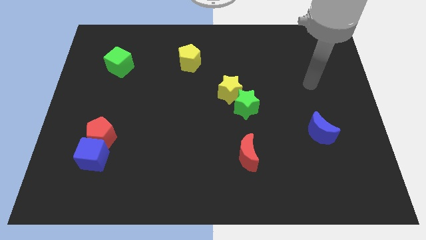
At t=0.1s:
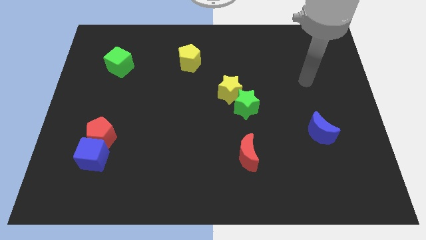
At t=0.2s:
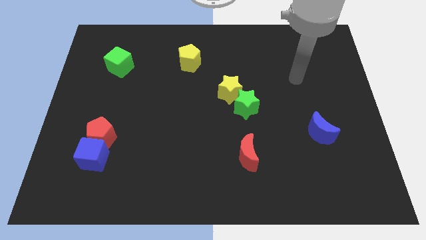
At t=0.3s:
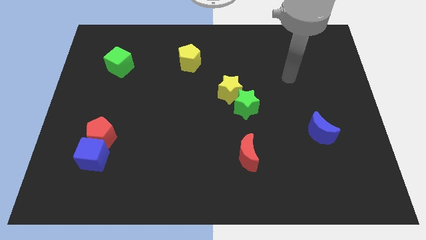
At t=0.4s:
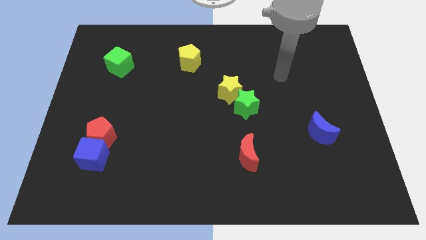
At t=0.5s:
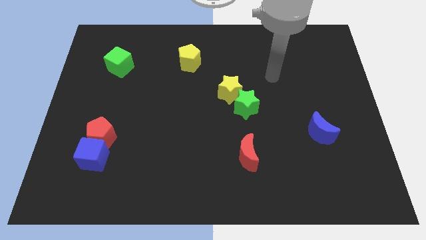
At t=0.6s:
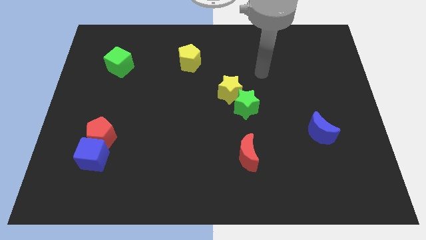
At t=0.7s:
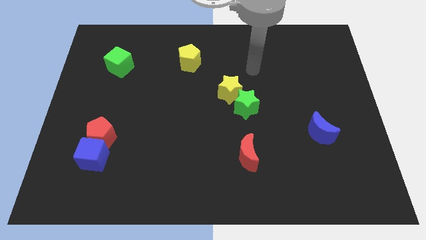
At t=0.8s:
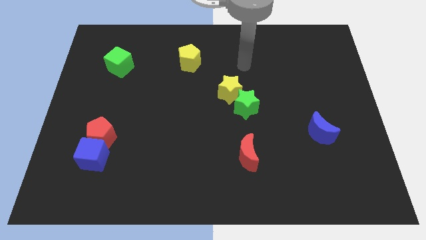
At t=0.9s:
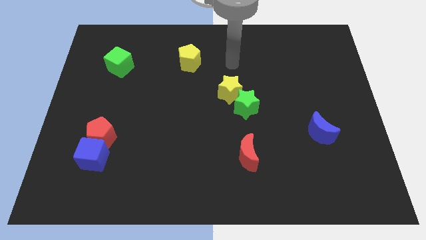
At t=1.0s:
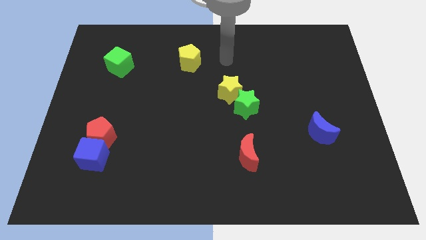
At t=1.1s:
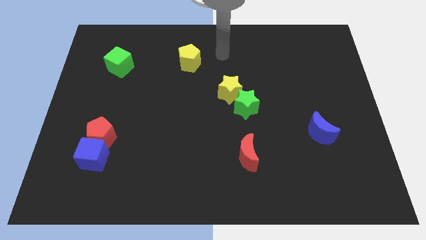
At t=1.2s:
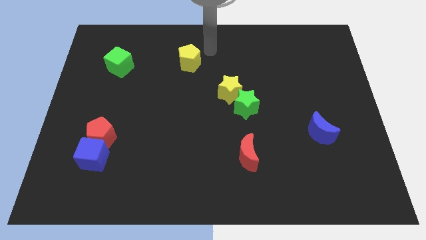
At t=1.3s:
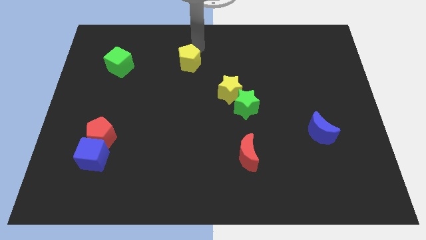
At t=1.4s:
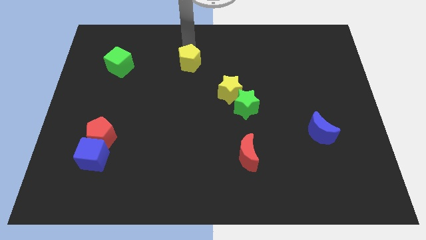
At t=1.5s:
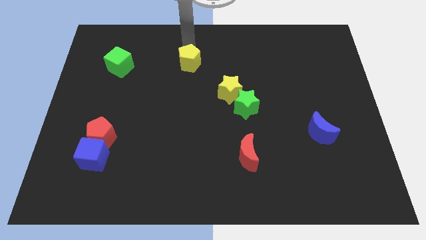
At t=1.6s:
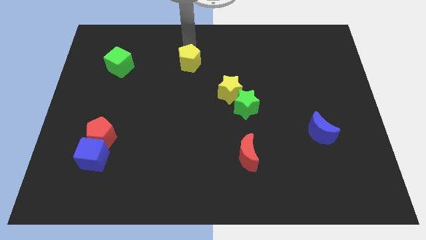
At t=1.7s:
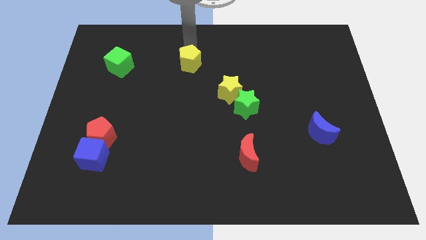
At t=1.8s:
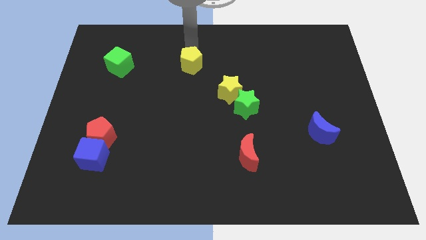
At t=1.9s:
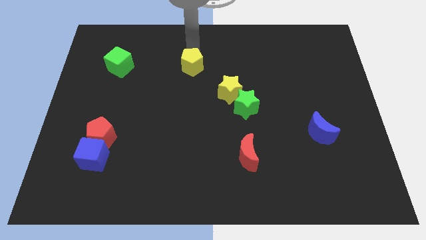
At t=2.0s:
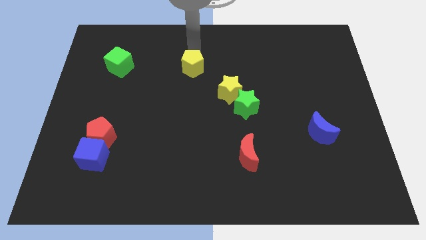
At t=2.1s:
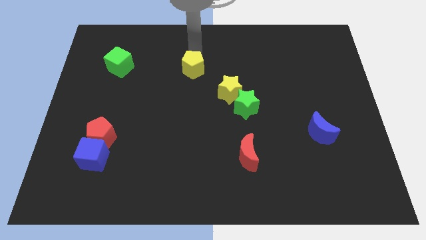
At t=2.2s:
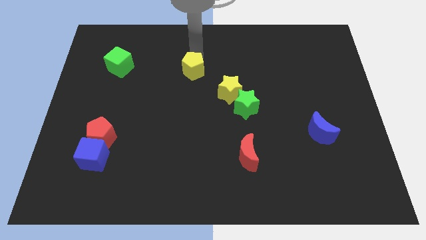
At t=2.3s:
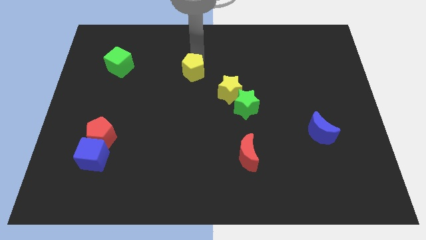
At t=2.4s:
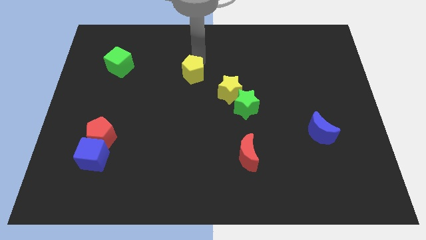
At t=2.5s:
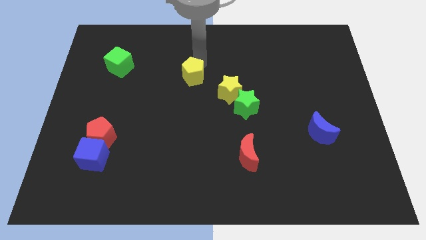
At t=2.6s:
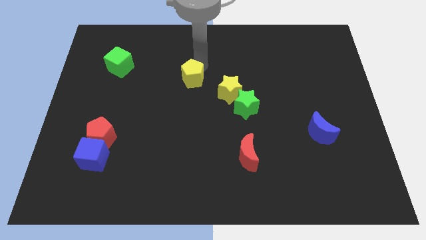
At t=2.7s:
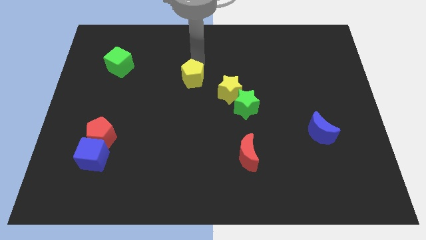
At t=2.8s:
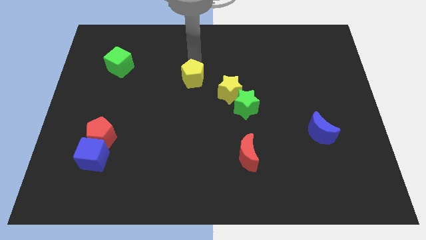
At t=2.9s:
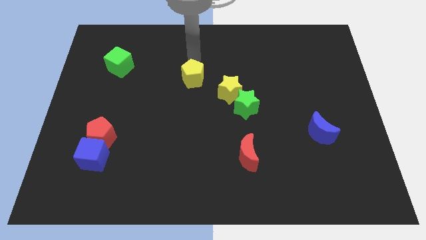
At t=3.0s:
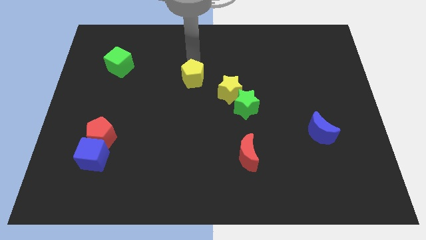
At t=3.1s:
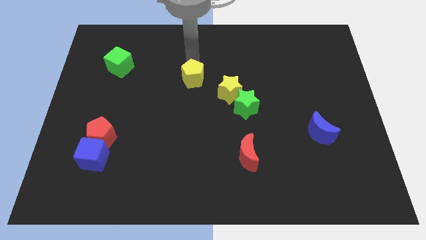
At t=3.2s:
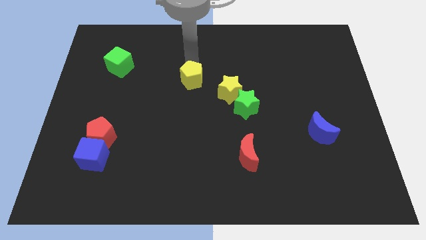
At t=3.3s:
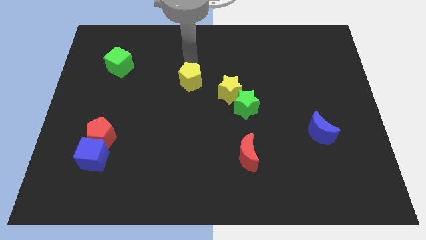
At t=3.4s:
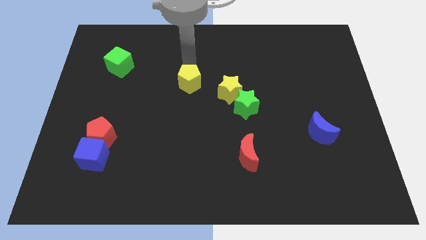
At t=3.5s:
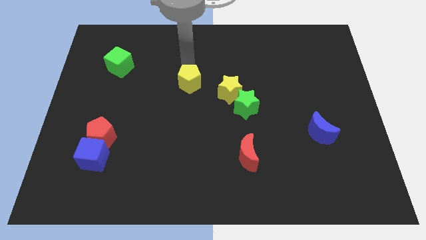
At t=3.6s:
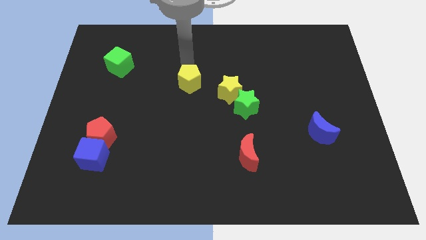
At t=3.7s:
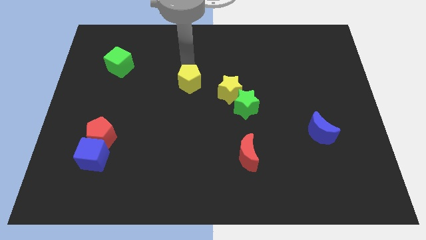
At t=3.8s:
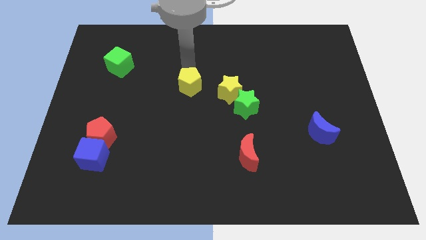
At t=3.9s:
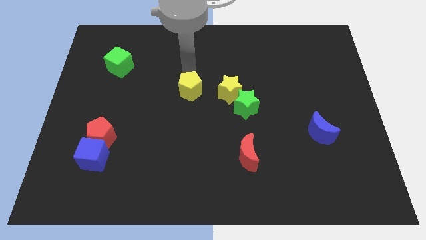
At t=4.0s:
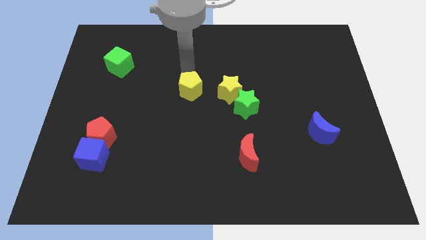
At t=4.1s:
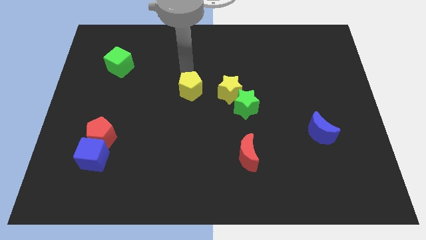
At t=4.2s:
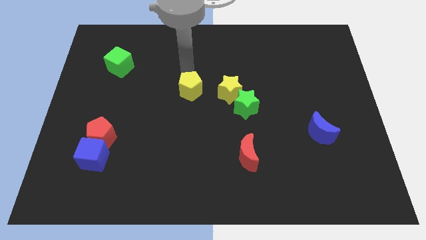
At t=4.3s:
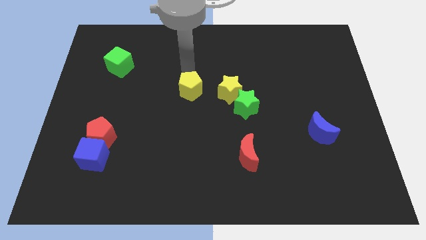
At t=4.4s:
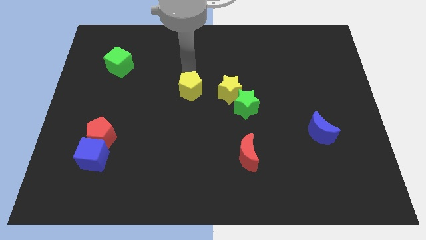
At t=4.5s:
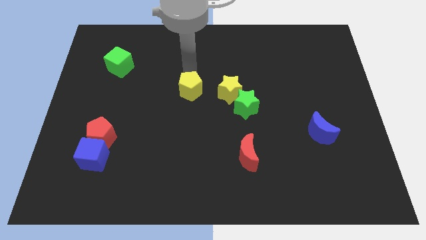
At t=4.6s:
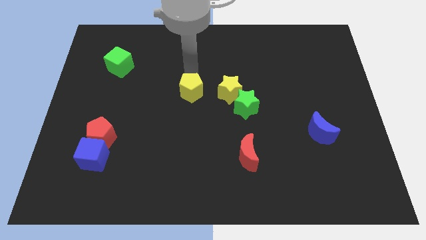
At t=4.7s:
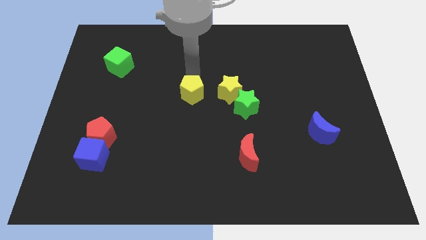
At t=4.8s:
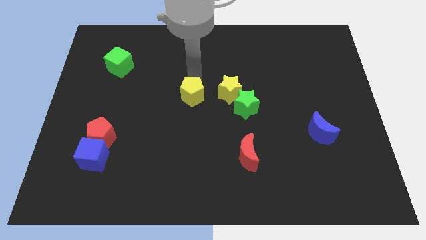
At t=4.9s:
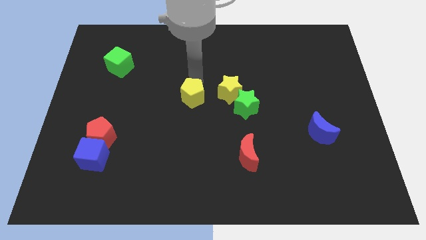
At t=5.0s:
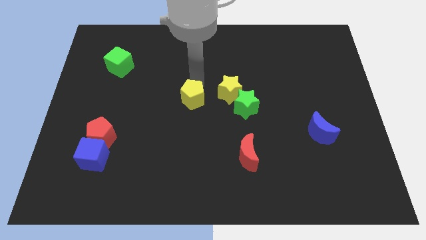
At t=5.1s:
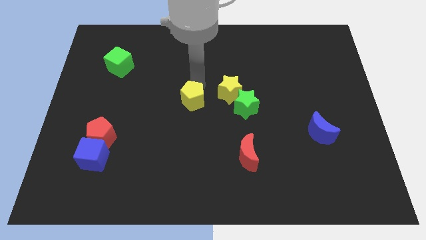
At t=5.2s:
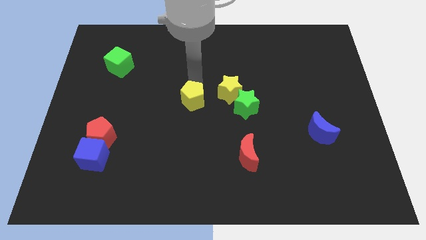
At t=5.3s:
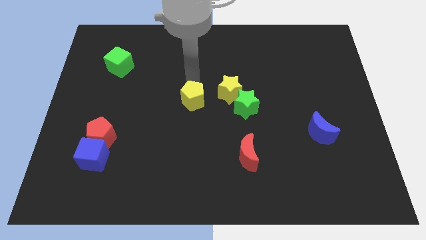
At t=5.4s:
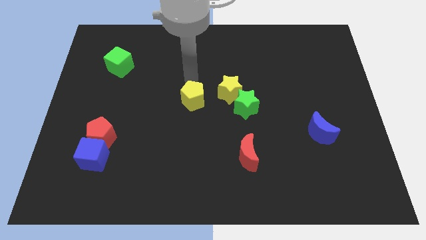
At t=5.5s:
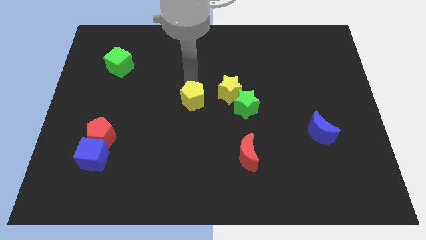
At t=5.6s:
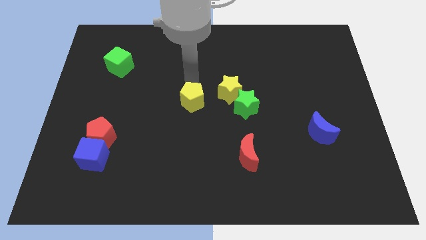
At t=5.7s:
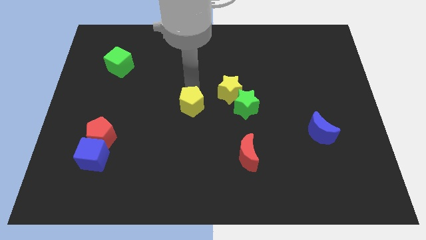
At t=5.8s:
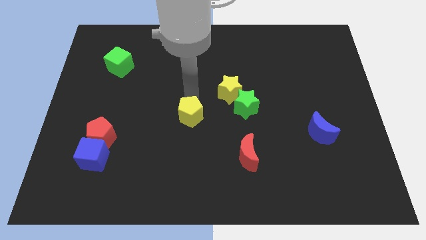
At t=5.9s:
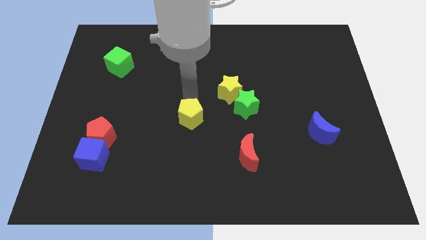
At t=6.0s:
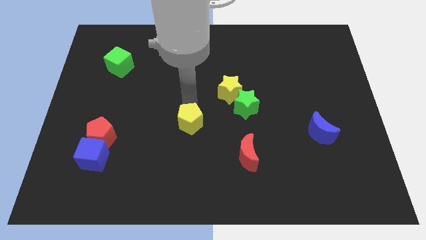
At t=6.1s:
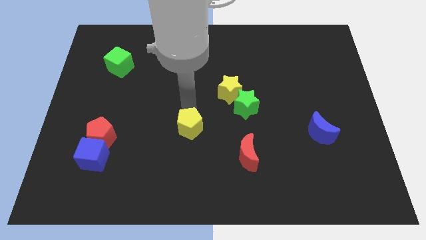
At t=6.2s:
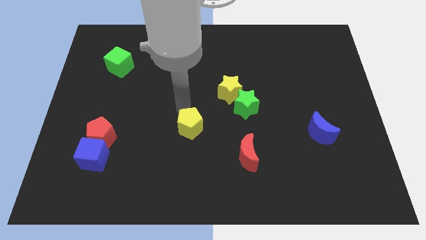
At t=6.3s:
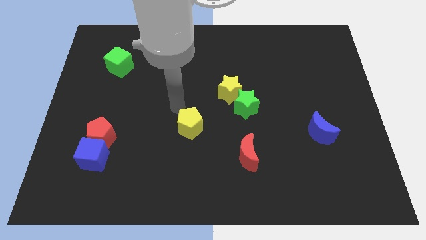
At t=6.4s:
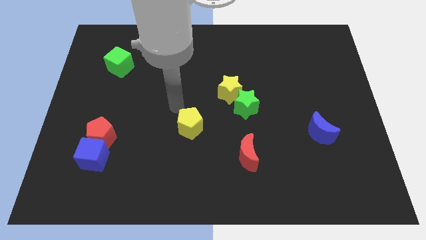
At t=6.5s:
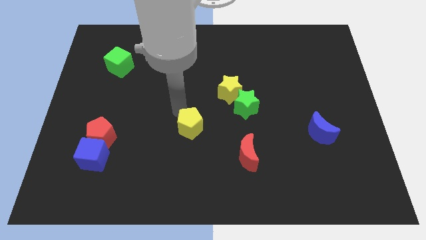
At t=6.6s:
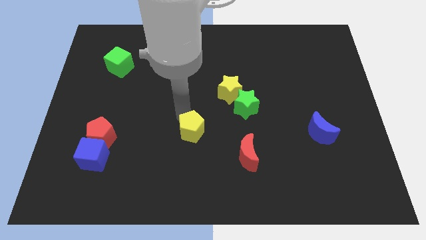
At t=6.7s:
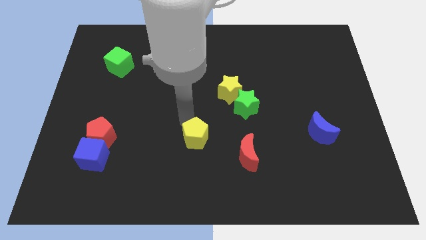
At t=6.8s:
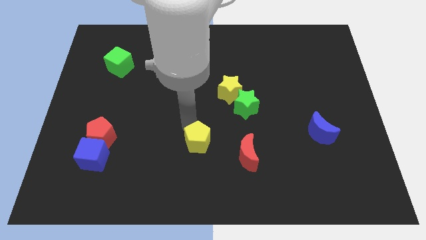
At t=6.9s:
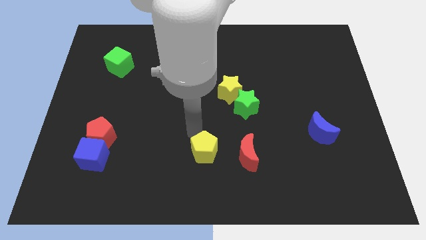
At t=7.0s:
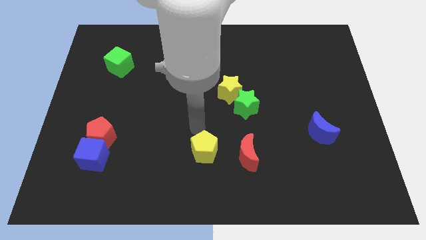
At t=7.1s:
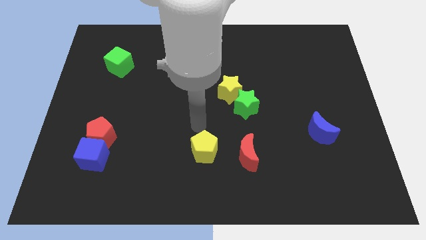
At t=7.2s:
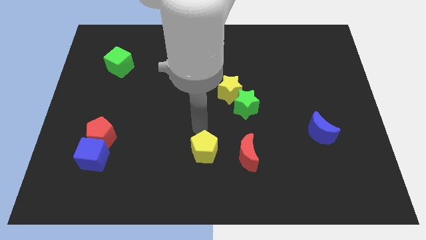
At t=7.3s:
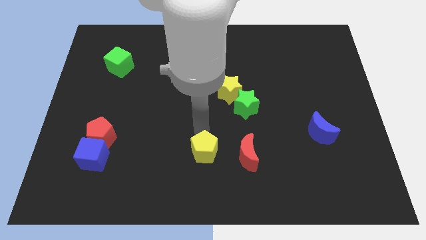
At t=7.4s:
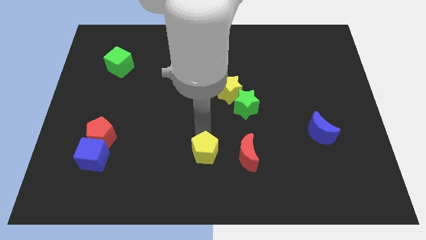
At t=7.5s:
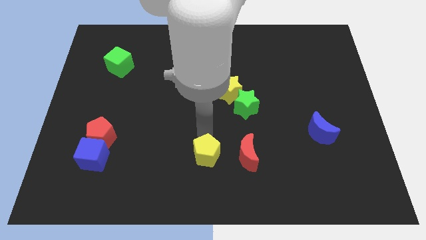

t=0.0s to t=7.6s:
move the yellow pentagon to the bottom
